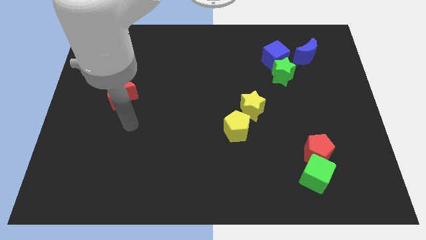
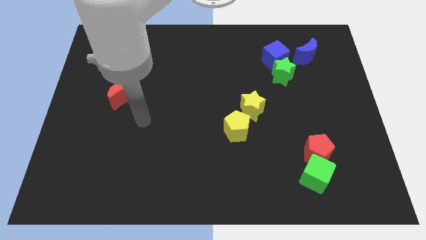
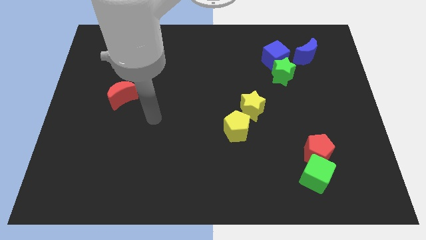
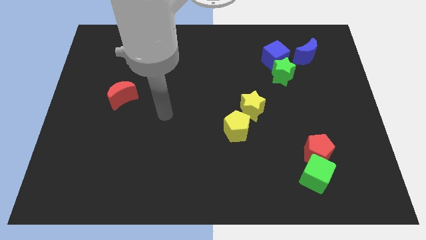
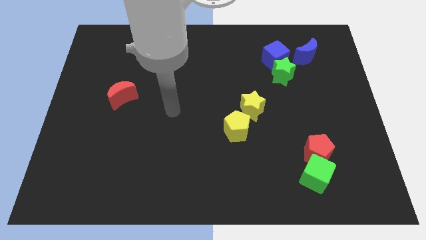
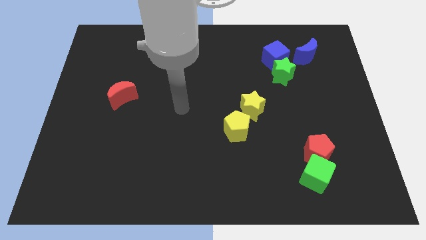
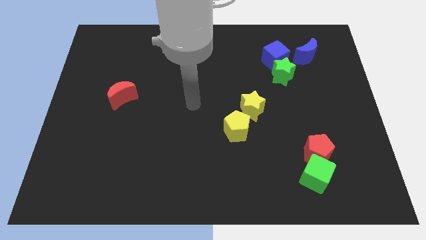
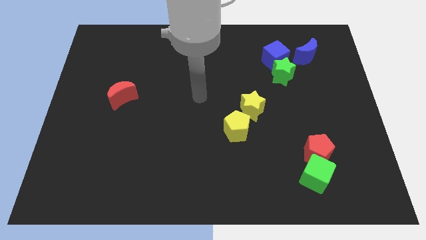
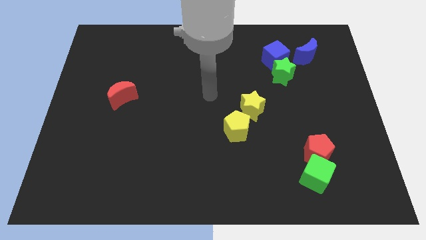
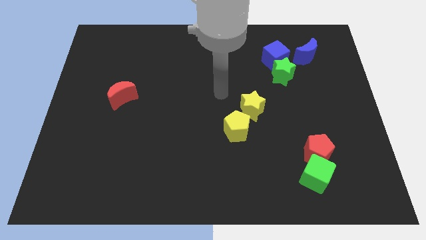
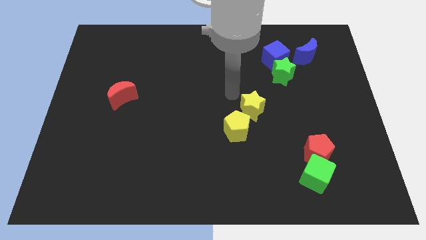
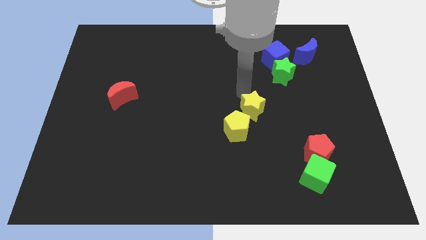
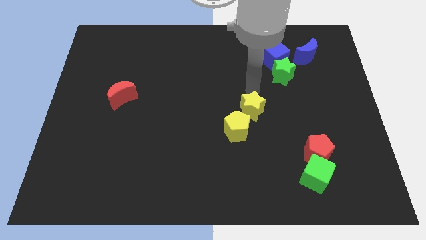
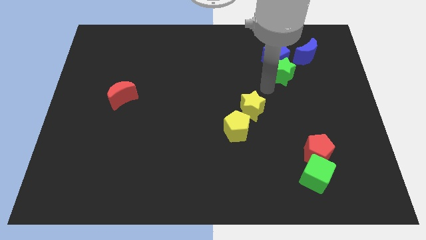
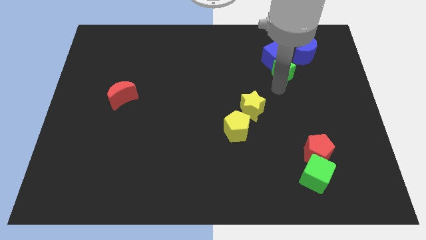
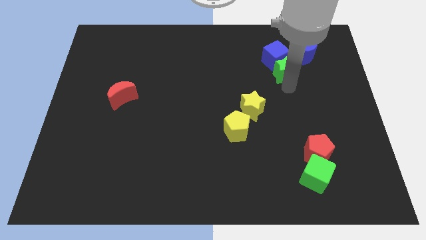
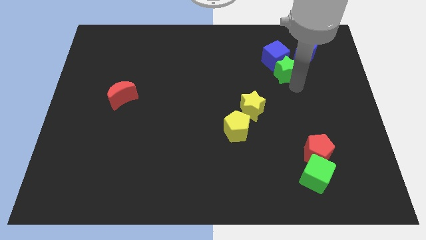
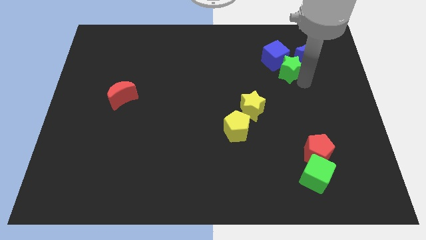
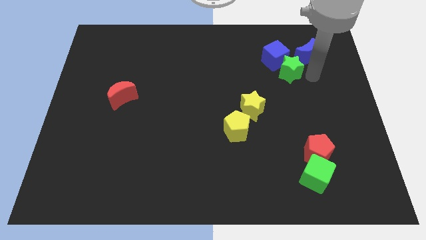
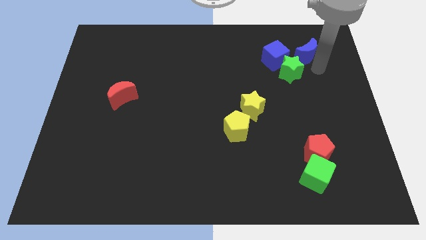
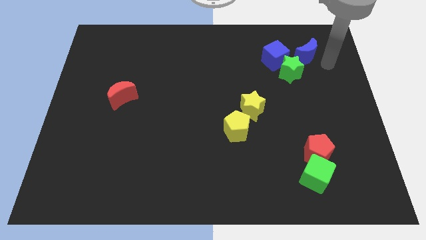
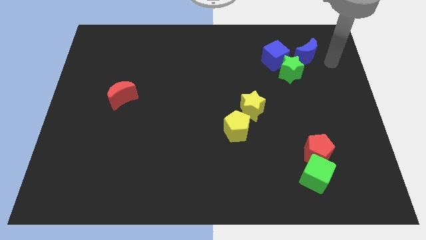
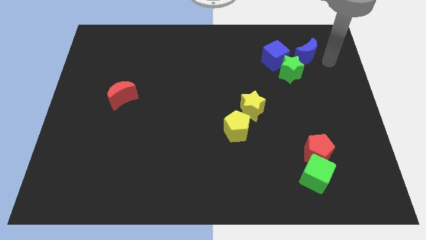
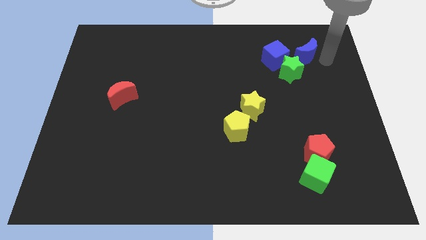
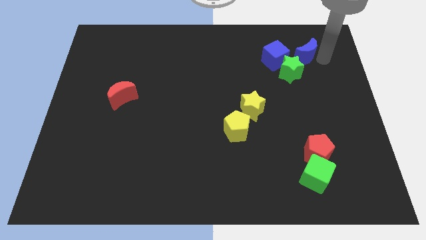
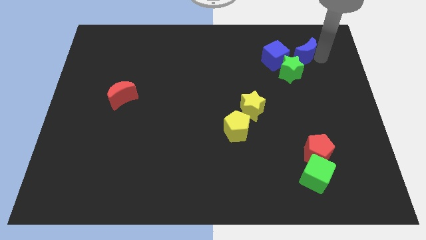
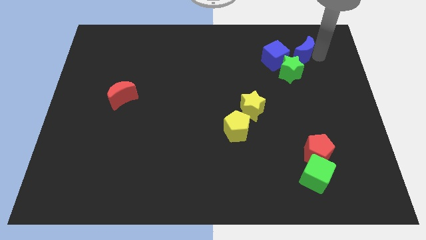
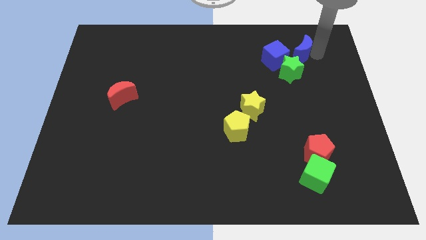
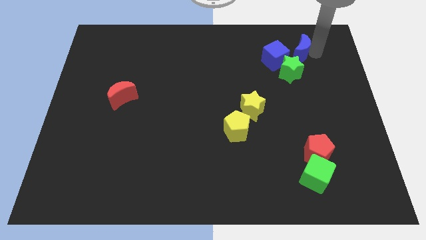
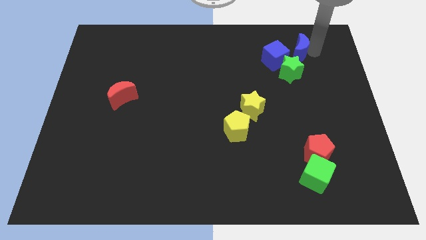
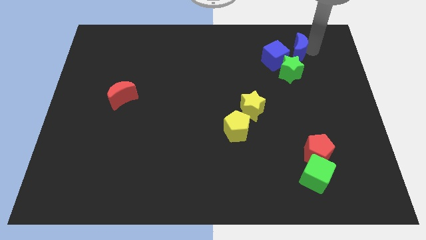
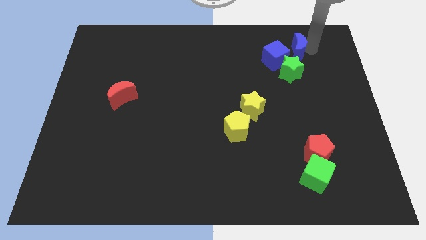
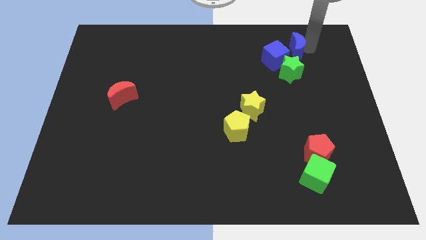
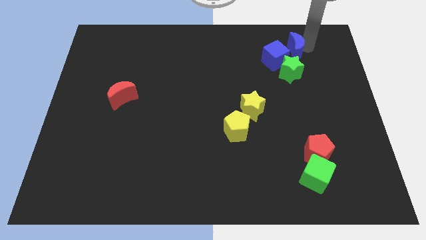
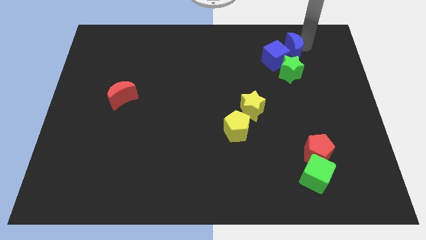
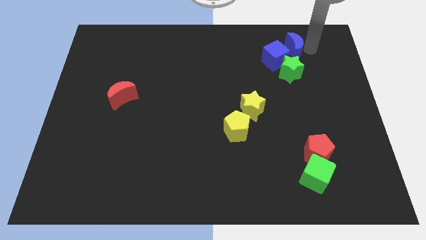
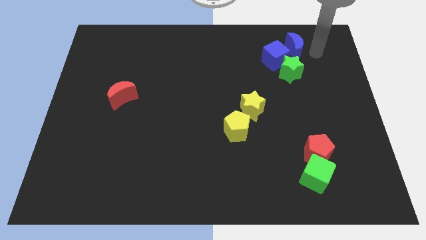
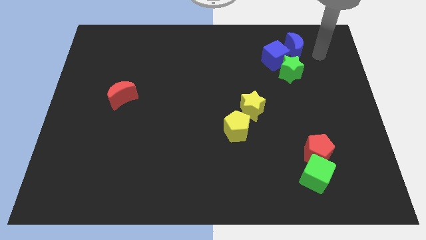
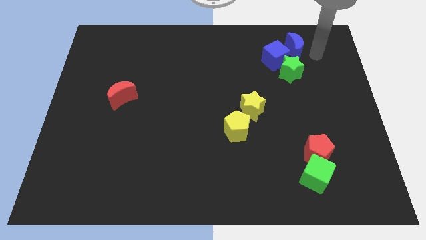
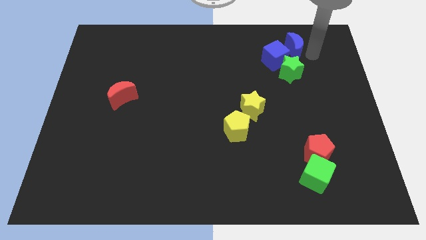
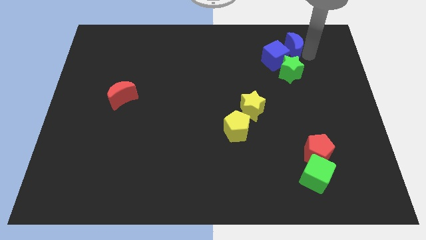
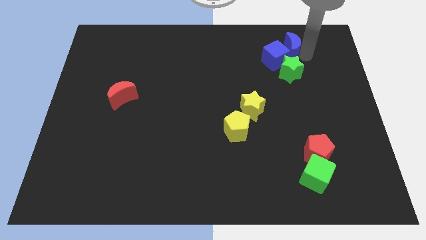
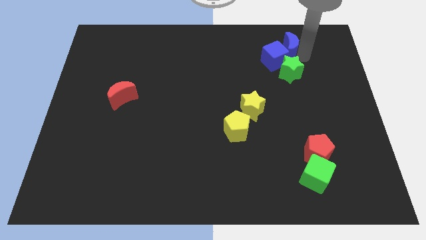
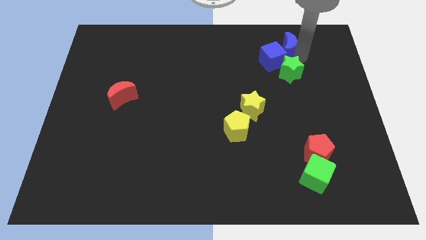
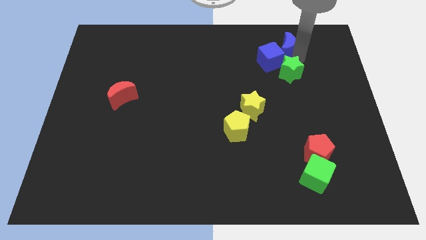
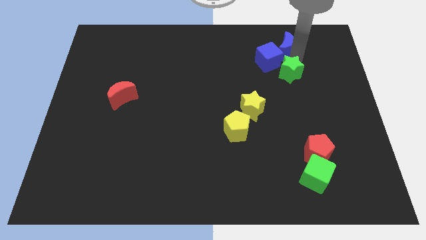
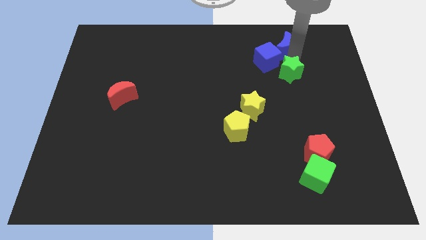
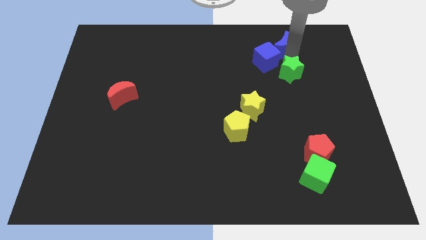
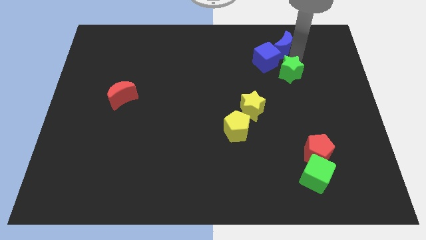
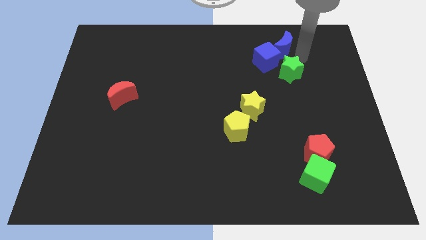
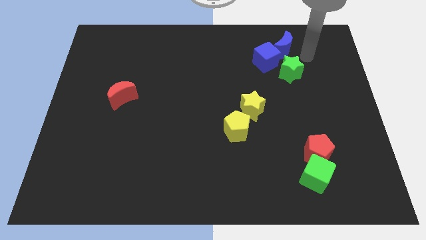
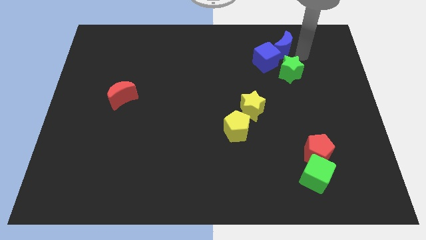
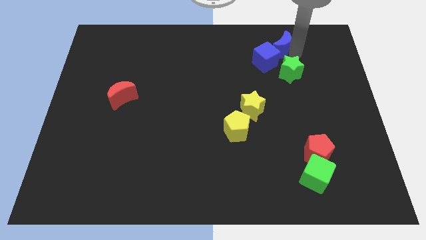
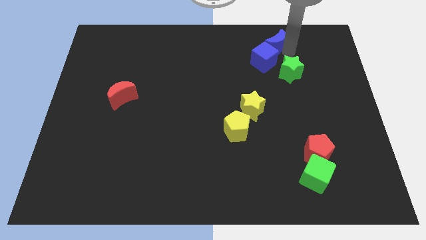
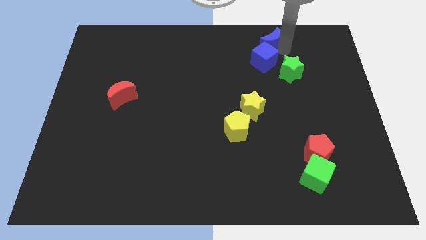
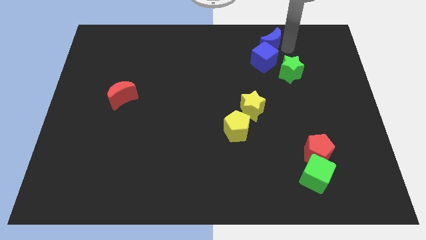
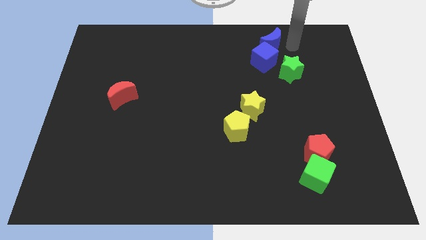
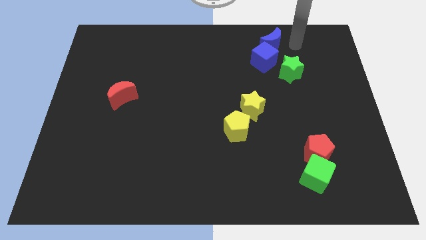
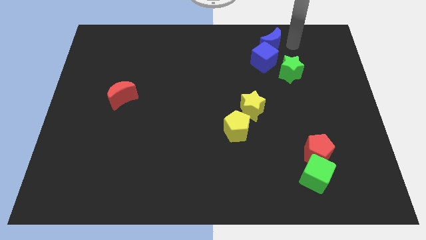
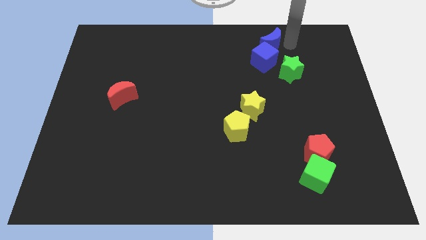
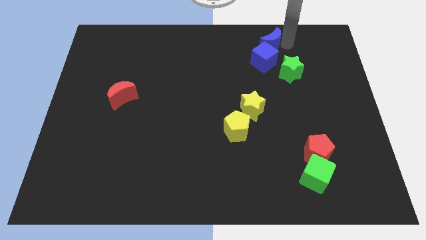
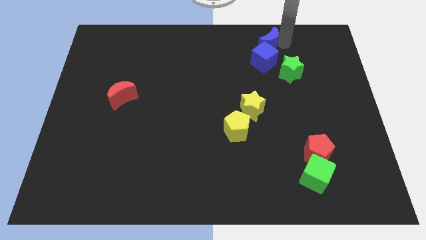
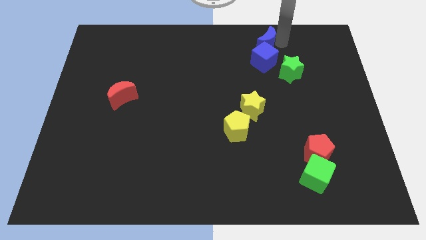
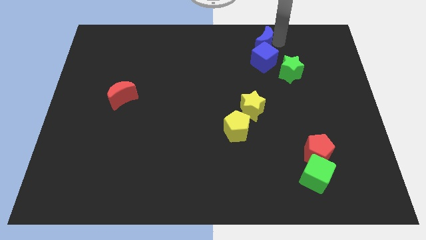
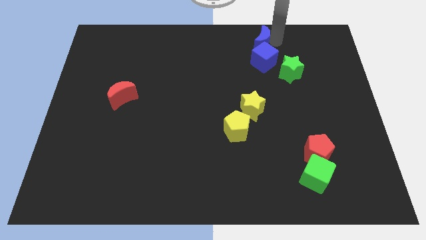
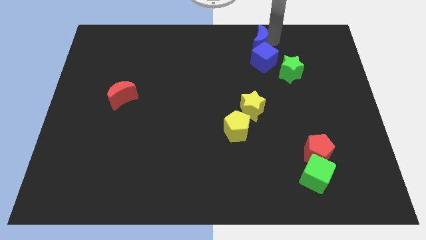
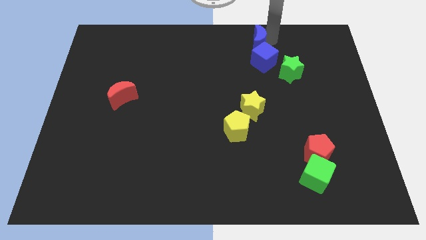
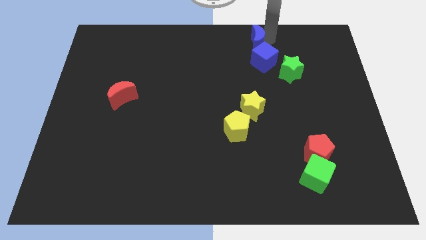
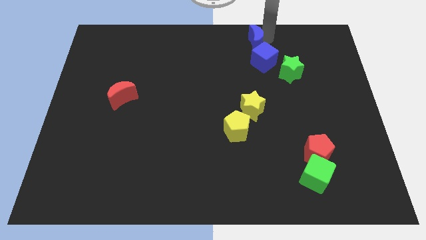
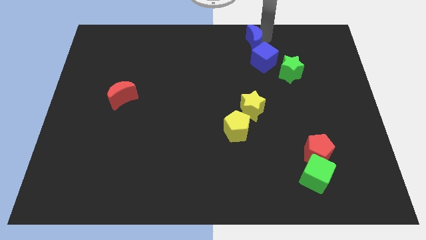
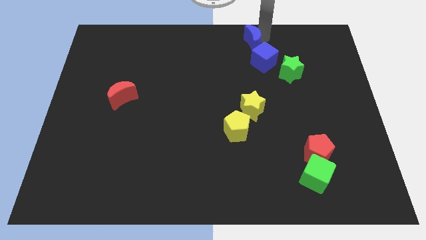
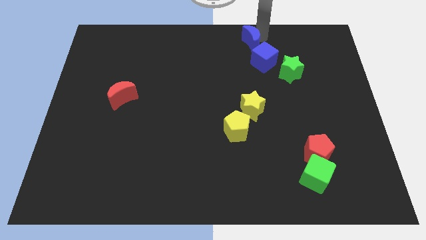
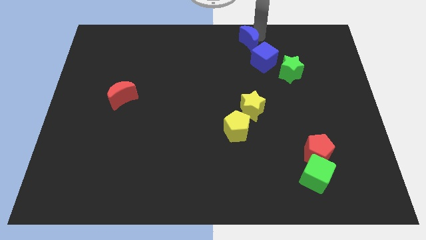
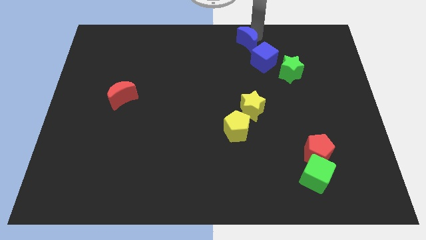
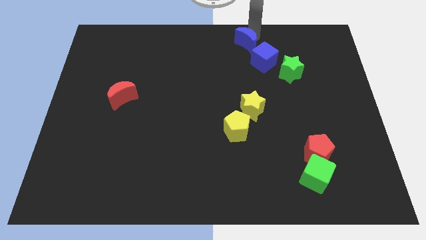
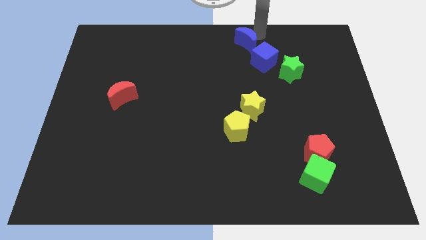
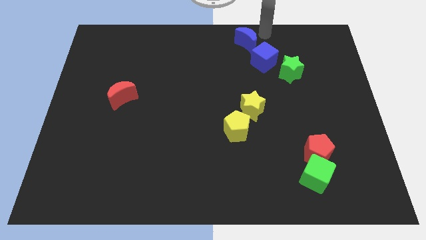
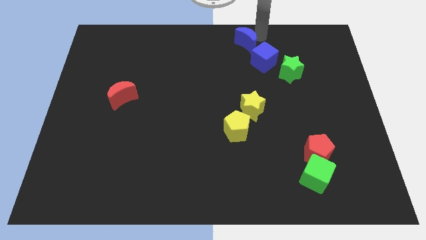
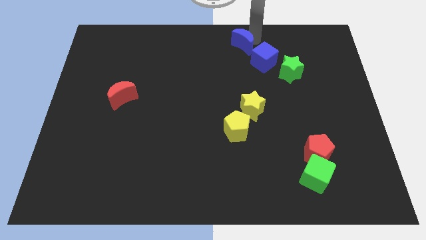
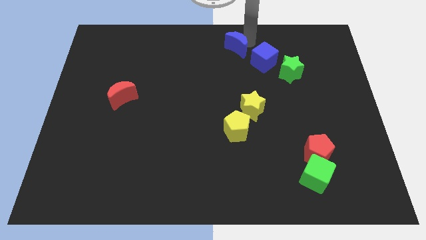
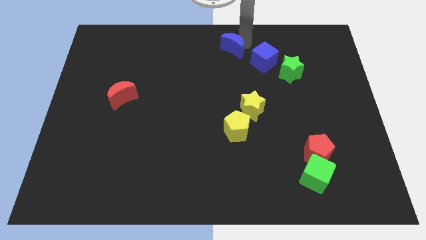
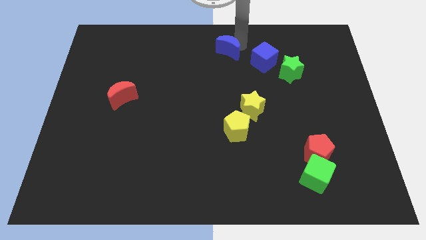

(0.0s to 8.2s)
move the blue moon left

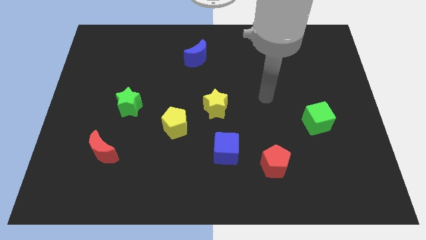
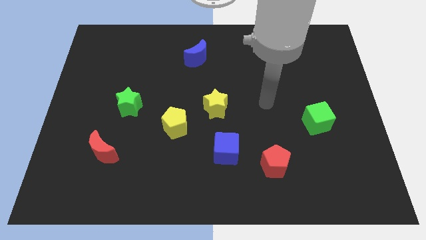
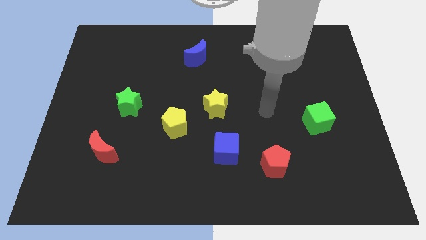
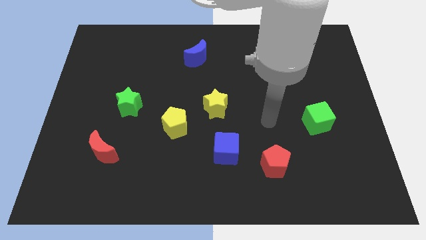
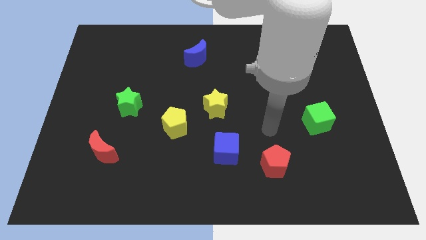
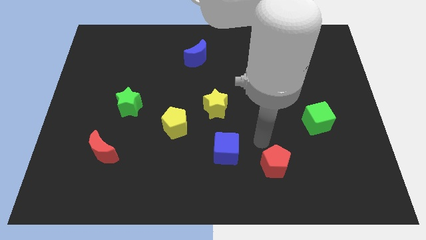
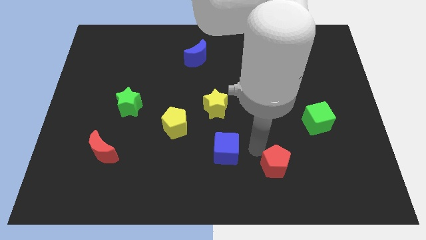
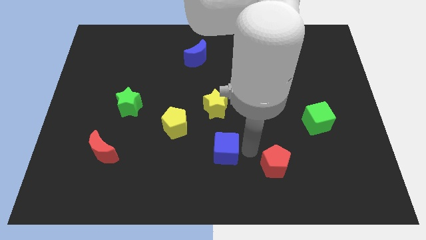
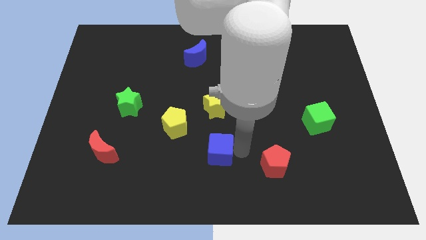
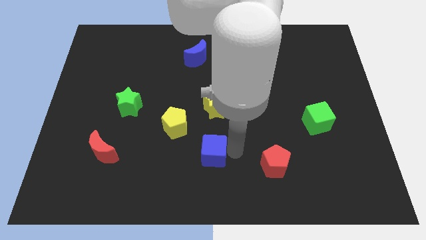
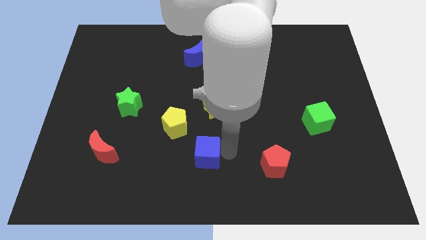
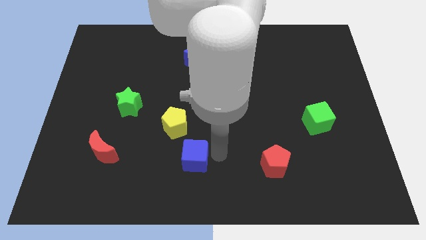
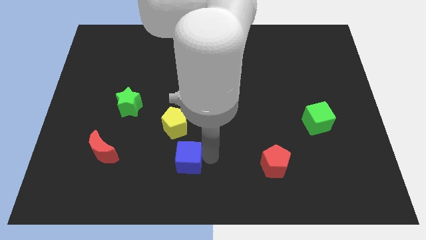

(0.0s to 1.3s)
move the blue cube to the left somewhat
